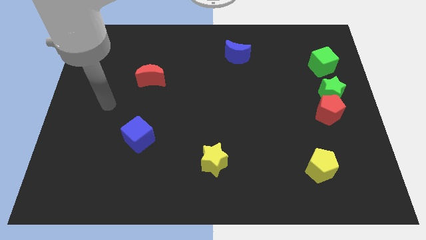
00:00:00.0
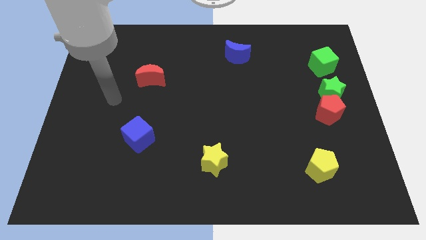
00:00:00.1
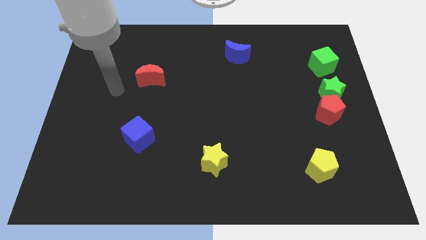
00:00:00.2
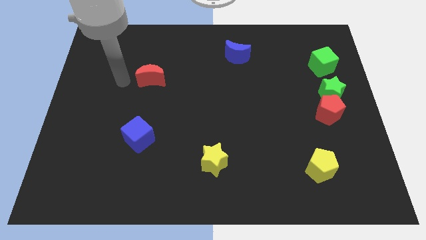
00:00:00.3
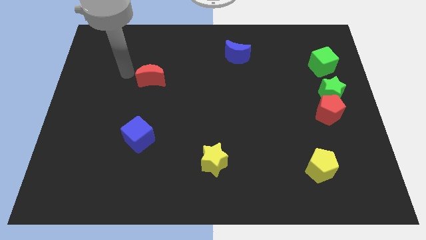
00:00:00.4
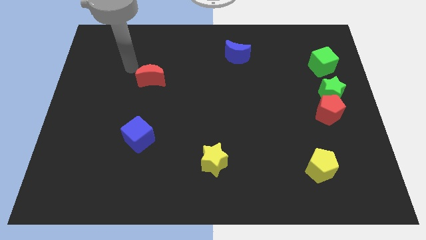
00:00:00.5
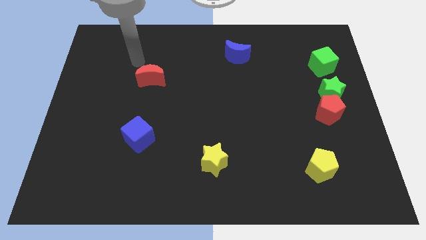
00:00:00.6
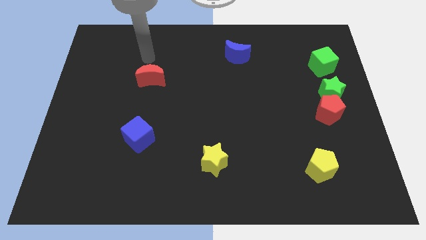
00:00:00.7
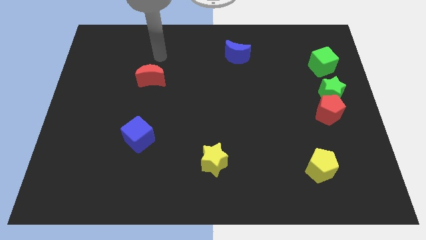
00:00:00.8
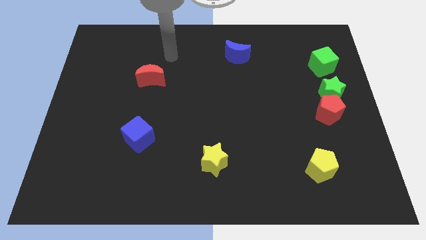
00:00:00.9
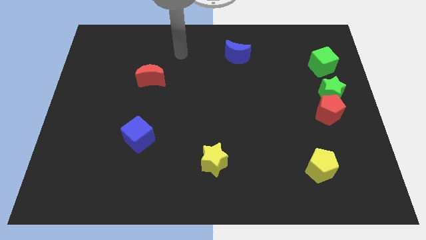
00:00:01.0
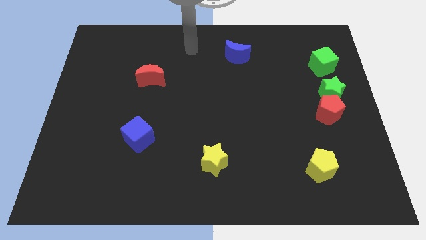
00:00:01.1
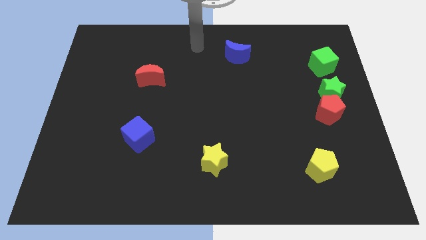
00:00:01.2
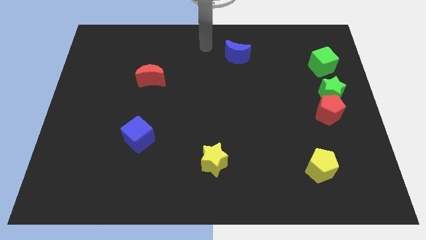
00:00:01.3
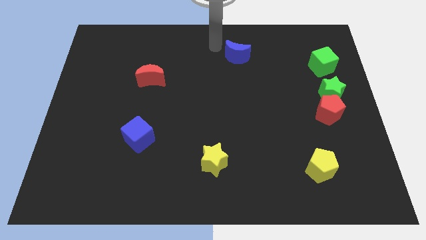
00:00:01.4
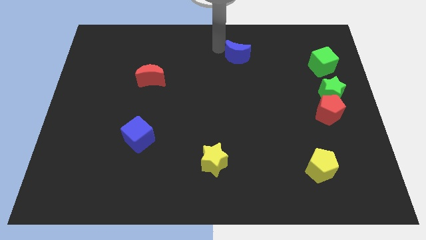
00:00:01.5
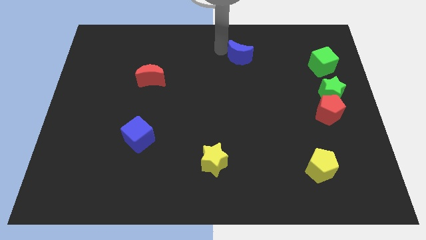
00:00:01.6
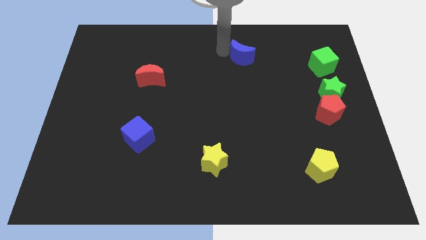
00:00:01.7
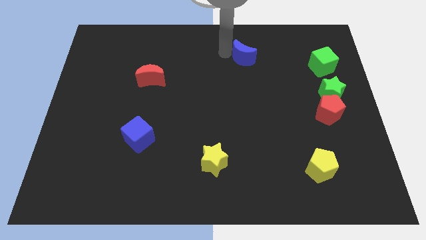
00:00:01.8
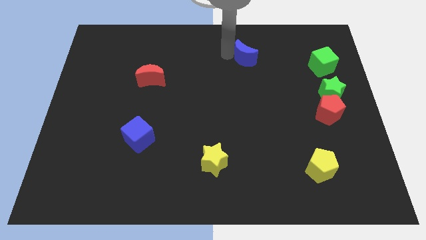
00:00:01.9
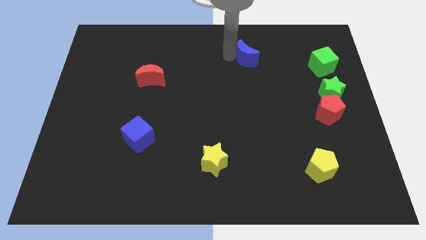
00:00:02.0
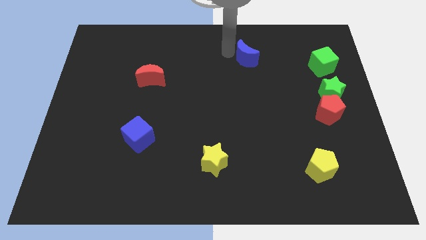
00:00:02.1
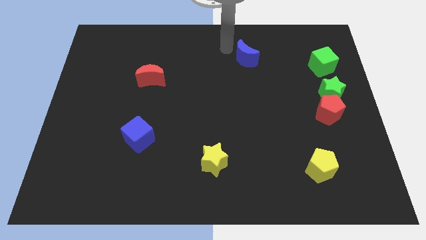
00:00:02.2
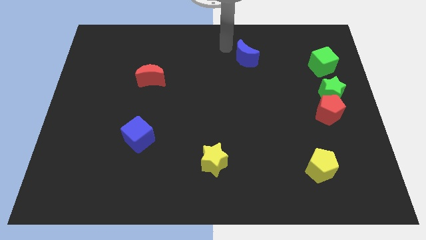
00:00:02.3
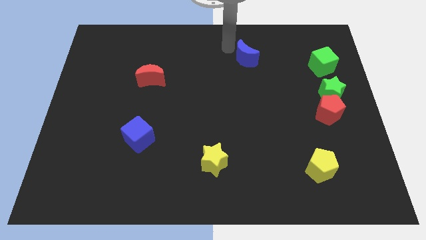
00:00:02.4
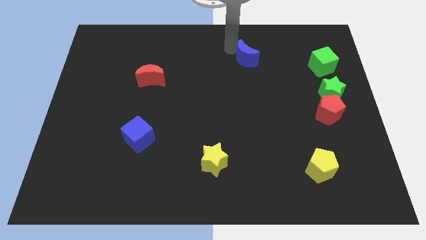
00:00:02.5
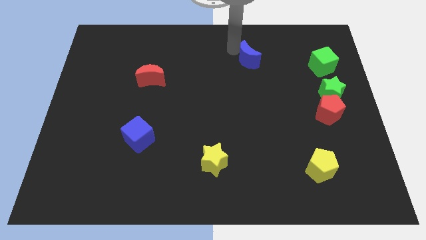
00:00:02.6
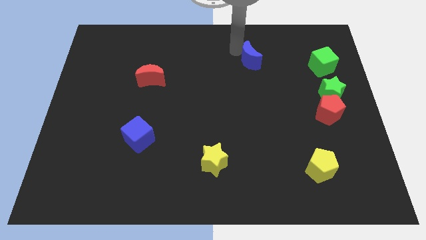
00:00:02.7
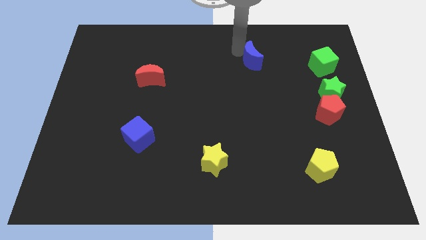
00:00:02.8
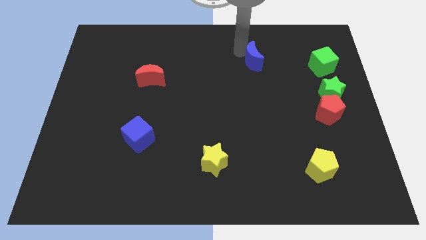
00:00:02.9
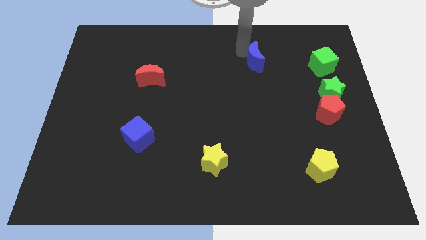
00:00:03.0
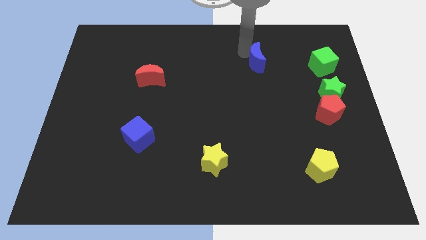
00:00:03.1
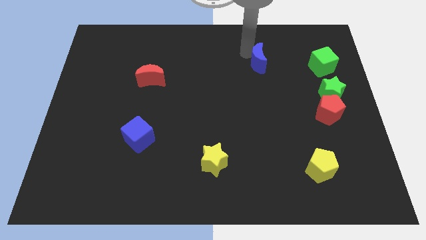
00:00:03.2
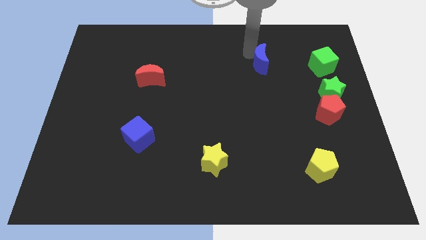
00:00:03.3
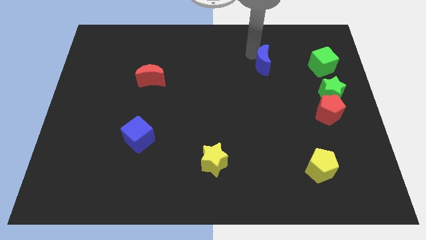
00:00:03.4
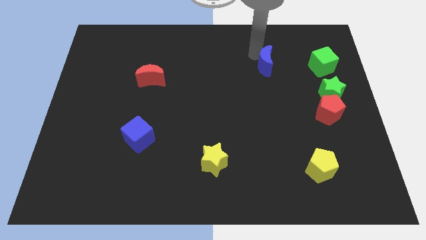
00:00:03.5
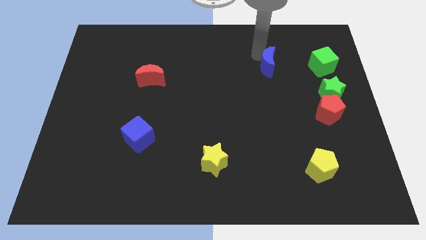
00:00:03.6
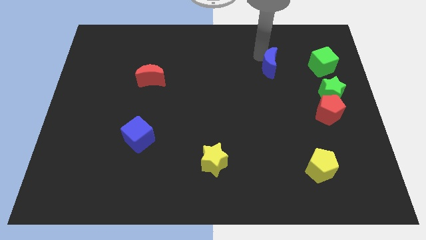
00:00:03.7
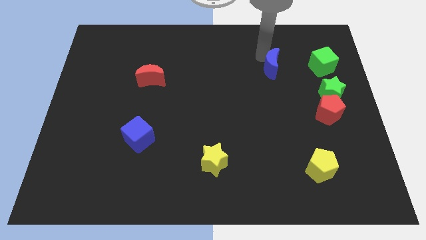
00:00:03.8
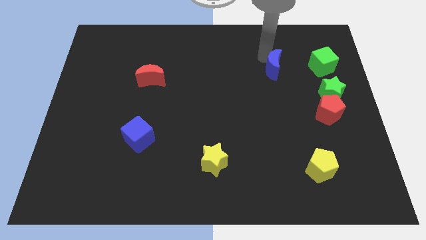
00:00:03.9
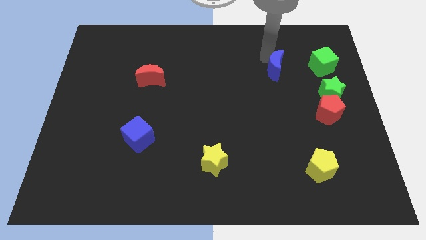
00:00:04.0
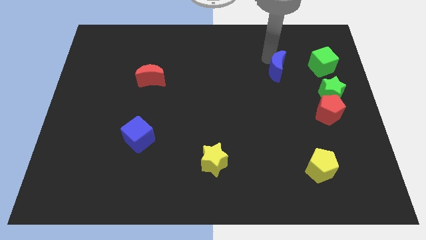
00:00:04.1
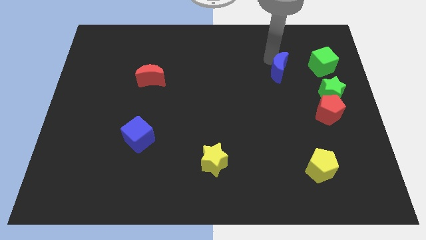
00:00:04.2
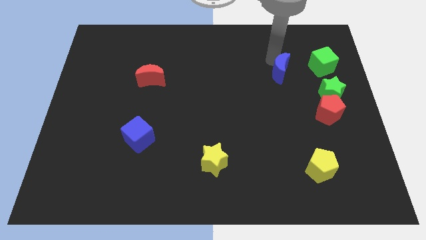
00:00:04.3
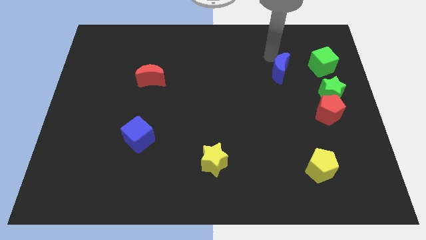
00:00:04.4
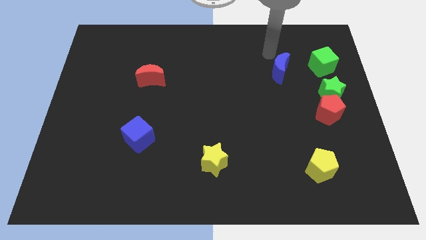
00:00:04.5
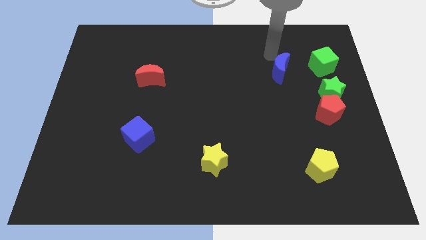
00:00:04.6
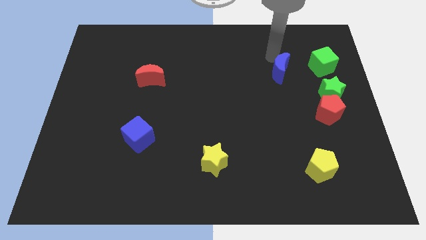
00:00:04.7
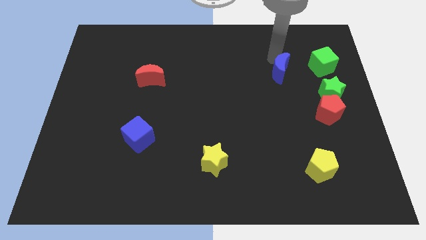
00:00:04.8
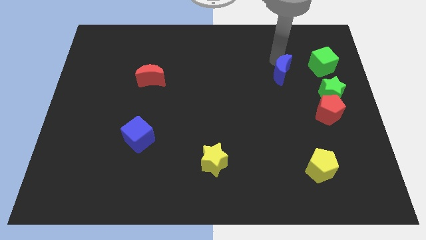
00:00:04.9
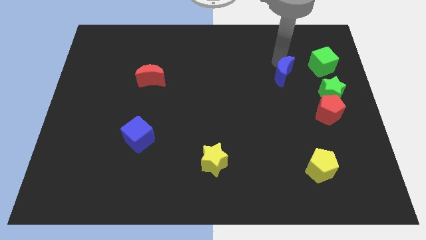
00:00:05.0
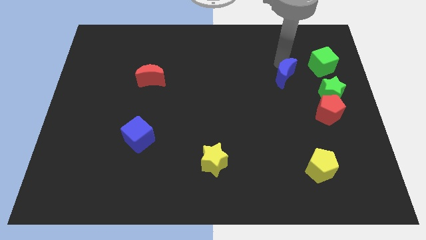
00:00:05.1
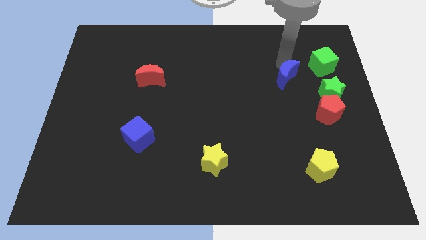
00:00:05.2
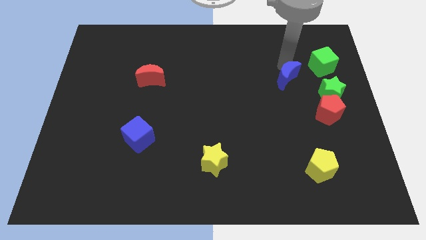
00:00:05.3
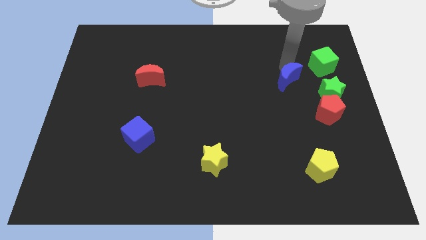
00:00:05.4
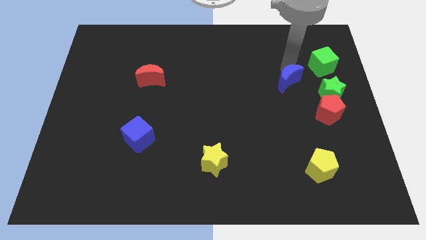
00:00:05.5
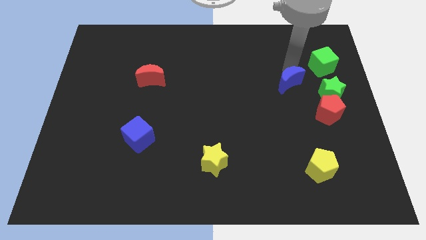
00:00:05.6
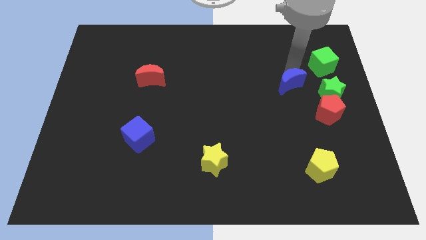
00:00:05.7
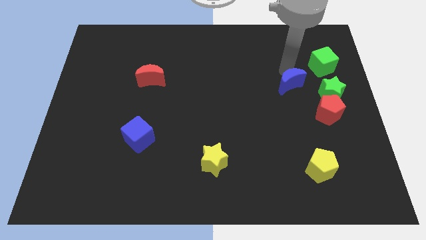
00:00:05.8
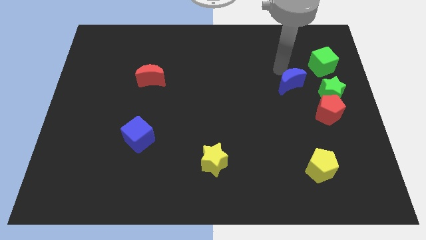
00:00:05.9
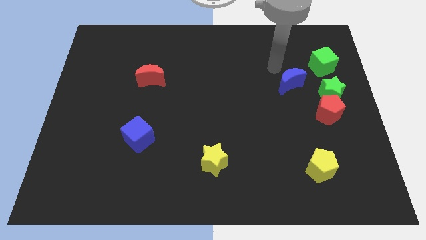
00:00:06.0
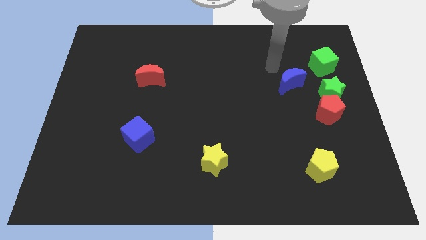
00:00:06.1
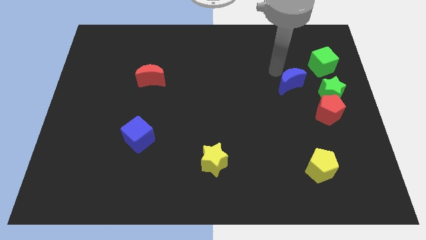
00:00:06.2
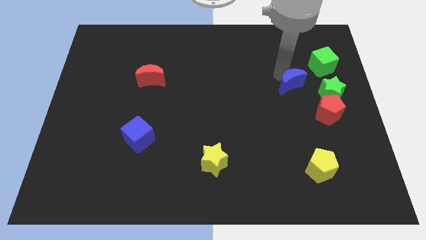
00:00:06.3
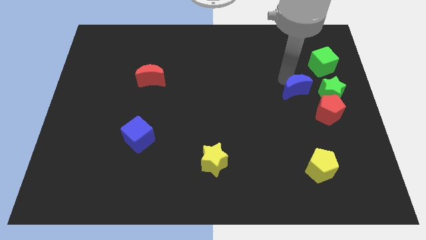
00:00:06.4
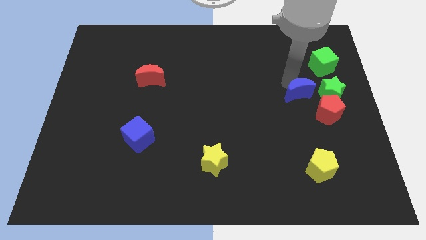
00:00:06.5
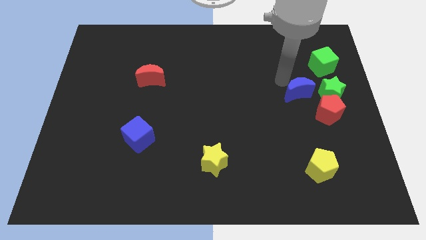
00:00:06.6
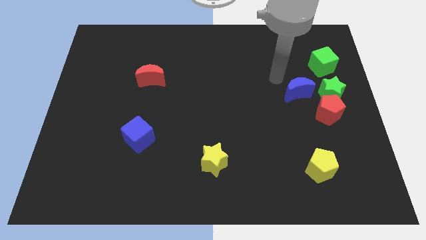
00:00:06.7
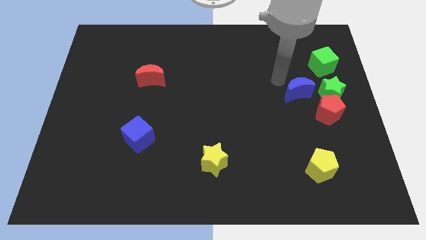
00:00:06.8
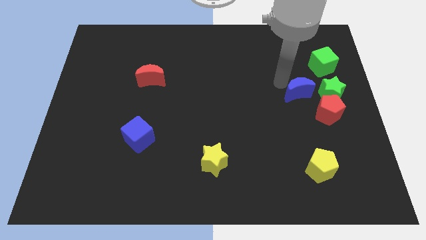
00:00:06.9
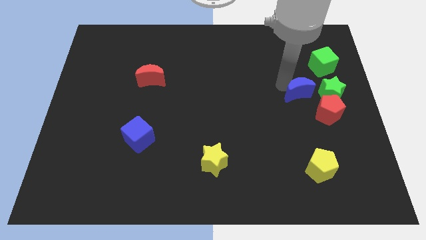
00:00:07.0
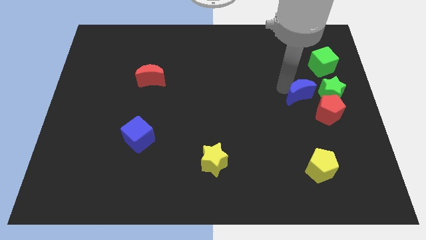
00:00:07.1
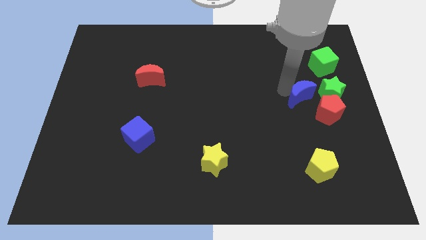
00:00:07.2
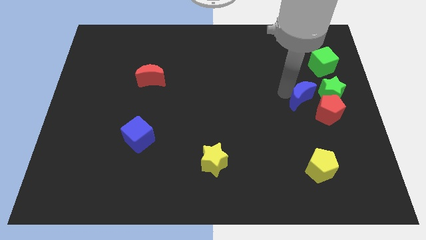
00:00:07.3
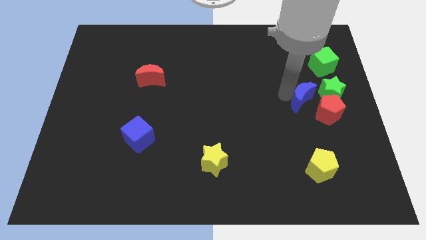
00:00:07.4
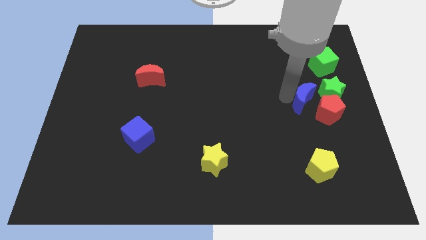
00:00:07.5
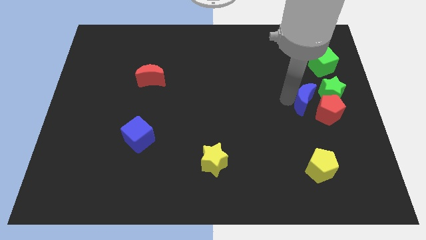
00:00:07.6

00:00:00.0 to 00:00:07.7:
push the blue moon next to the red pentagon
